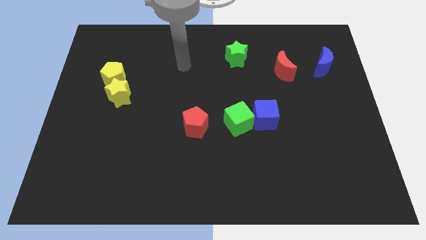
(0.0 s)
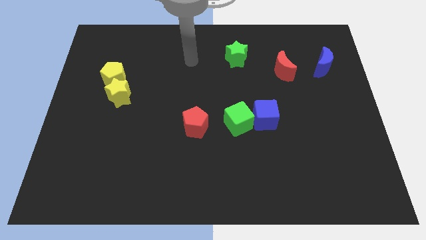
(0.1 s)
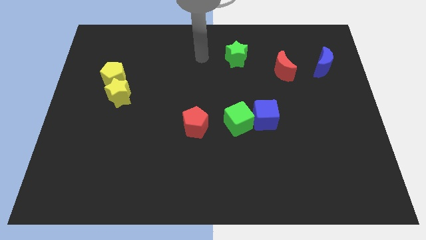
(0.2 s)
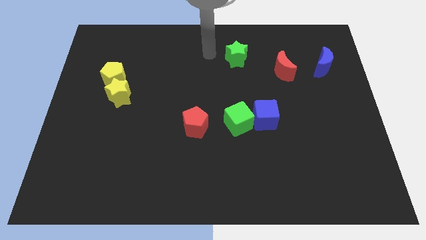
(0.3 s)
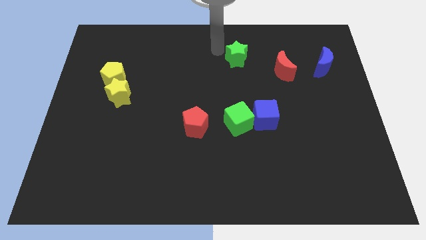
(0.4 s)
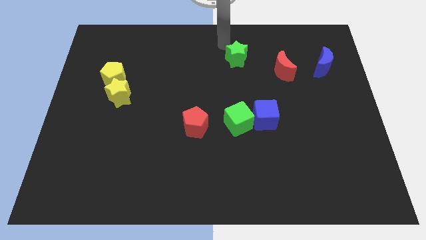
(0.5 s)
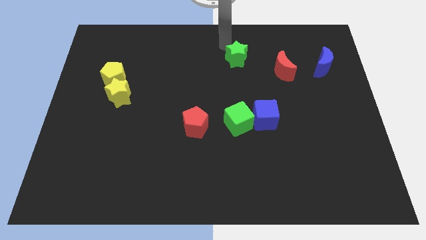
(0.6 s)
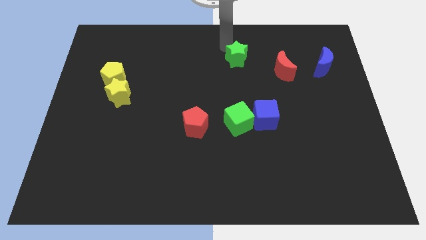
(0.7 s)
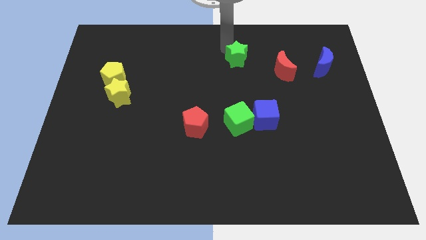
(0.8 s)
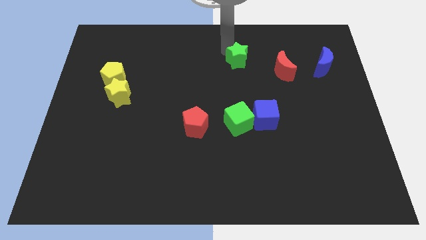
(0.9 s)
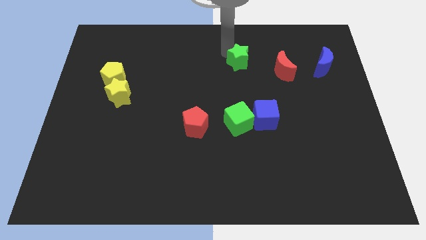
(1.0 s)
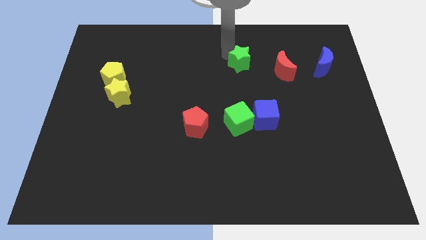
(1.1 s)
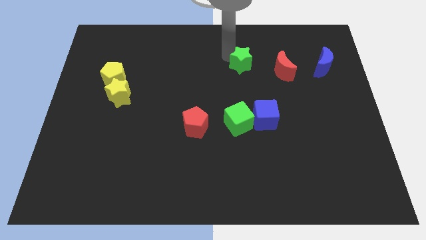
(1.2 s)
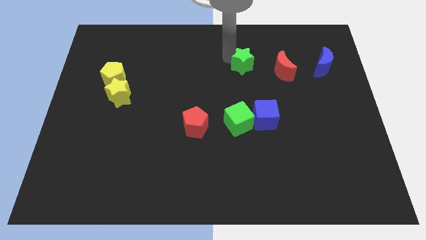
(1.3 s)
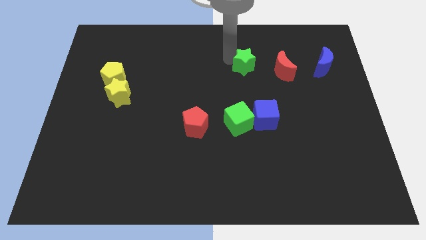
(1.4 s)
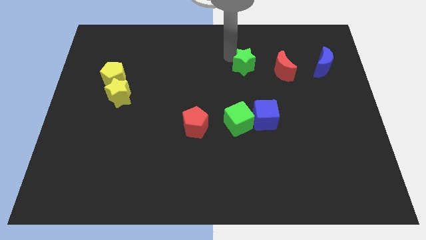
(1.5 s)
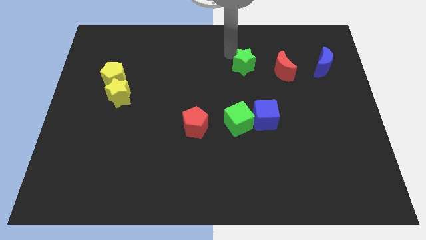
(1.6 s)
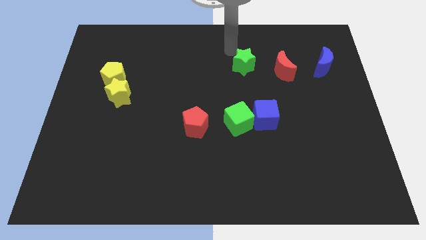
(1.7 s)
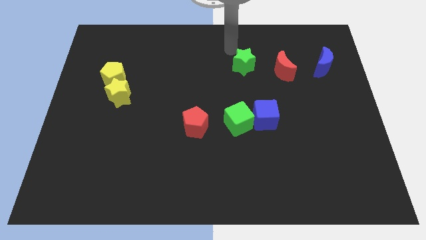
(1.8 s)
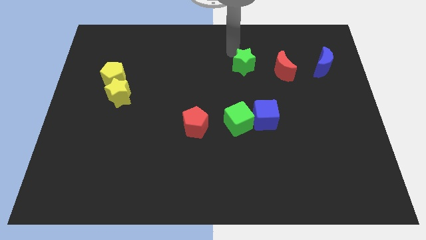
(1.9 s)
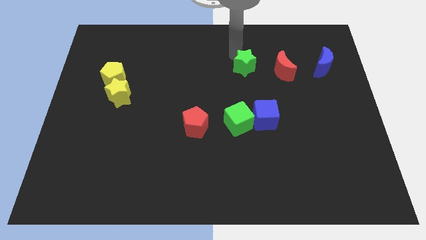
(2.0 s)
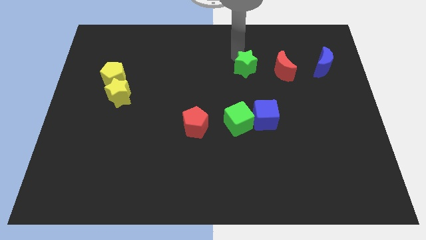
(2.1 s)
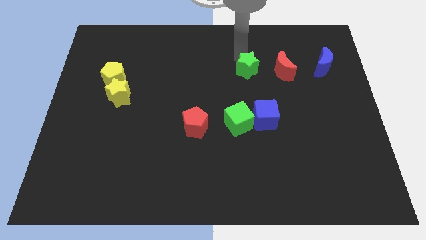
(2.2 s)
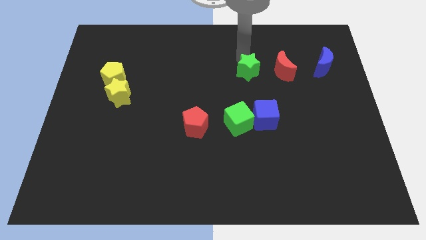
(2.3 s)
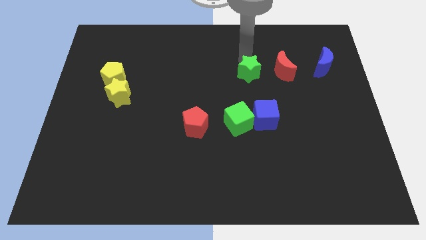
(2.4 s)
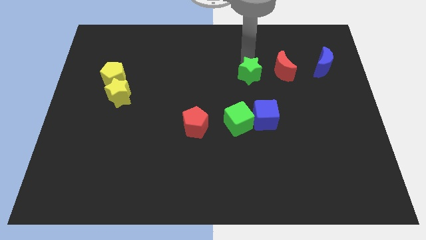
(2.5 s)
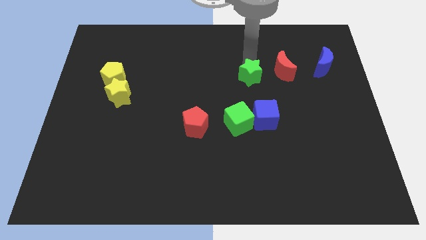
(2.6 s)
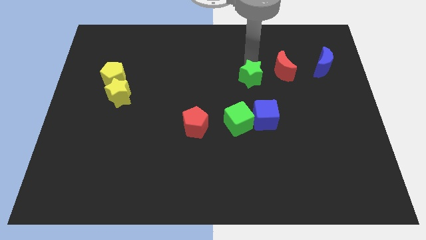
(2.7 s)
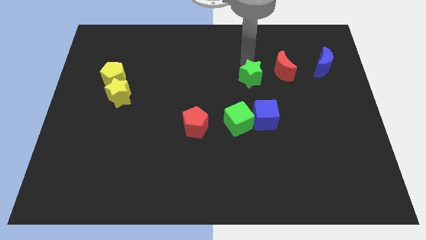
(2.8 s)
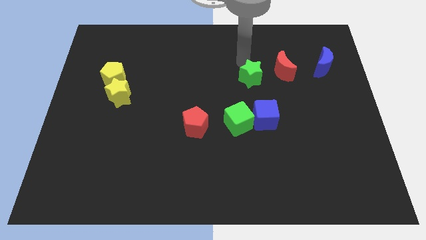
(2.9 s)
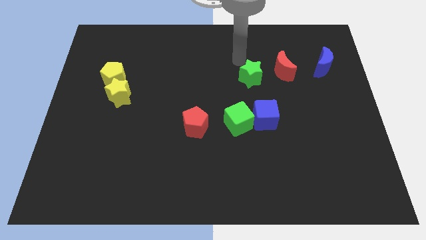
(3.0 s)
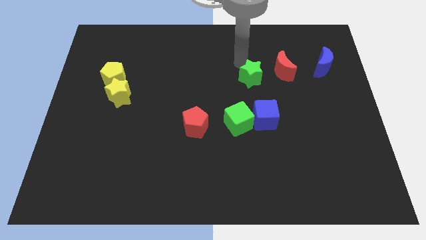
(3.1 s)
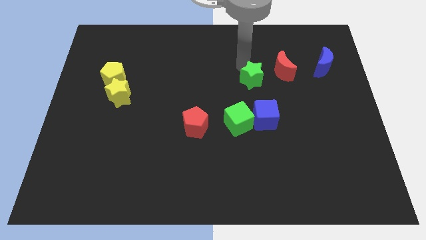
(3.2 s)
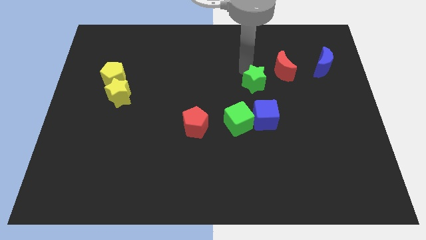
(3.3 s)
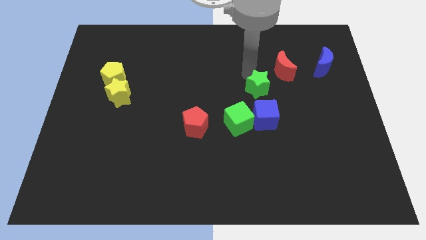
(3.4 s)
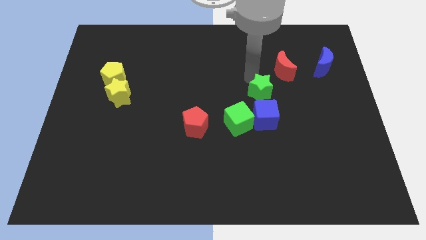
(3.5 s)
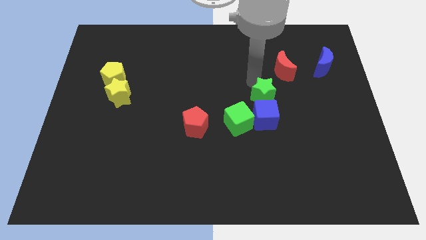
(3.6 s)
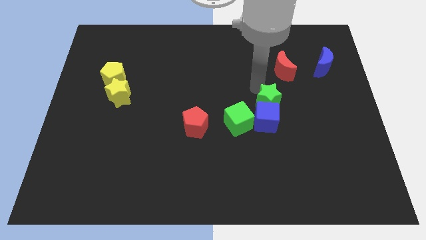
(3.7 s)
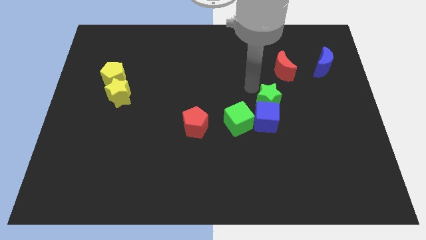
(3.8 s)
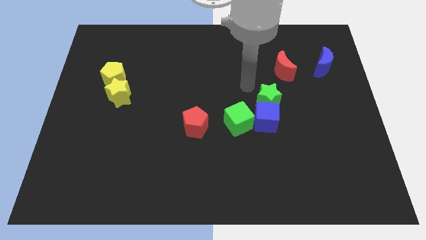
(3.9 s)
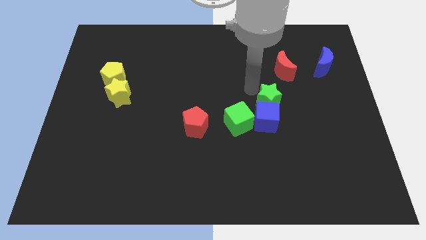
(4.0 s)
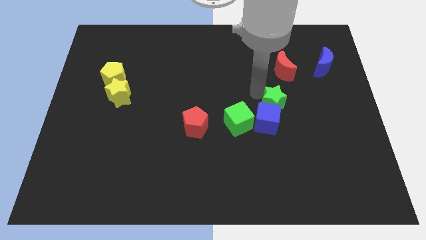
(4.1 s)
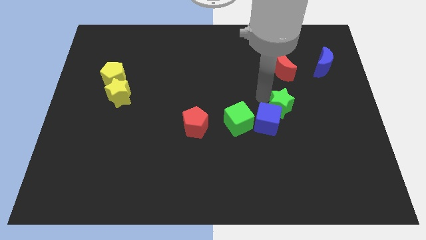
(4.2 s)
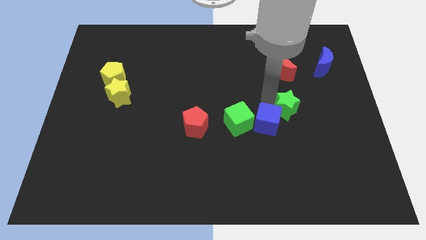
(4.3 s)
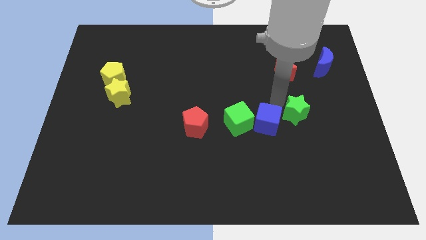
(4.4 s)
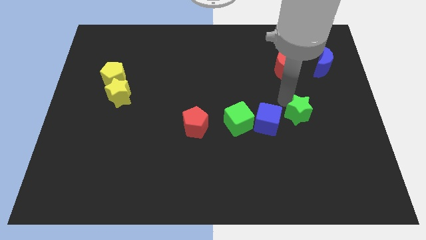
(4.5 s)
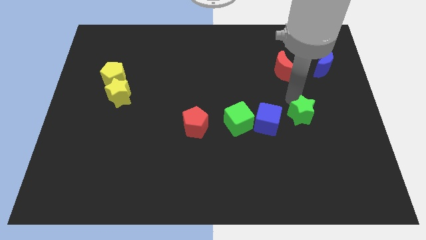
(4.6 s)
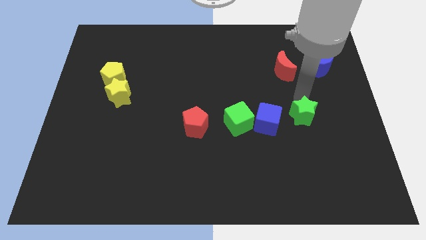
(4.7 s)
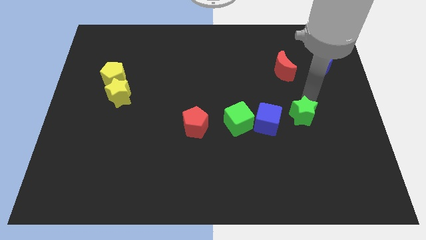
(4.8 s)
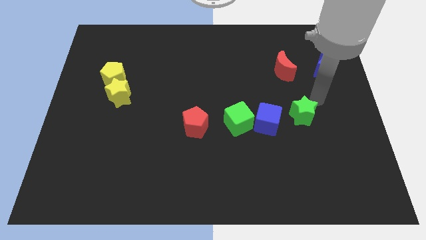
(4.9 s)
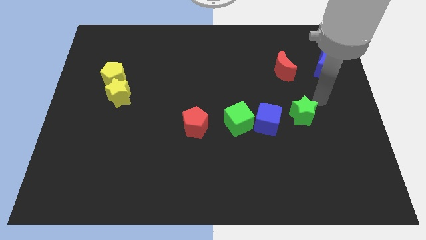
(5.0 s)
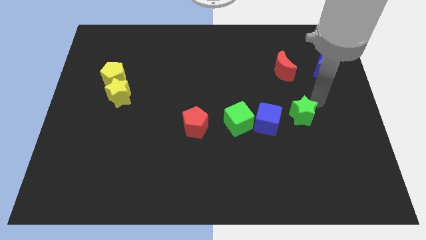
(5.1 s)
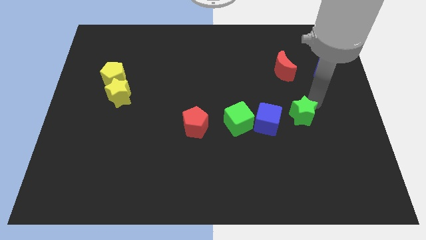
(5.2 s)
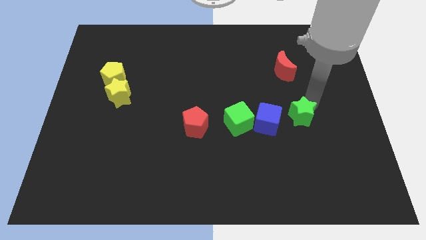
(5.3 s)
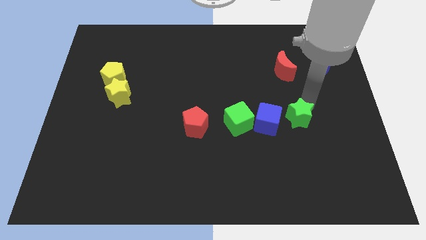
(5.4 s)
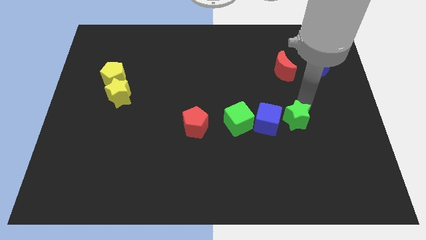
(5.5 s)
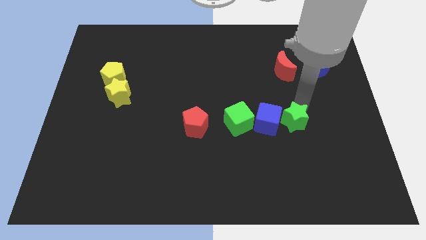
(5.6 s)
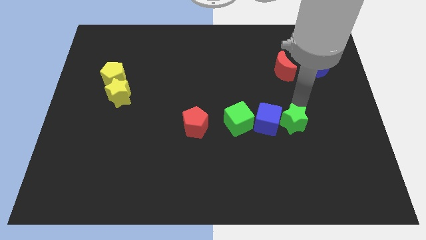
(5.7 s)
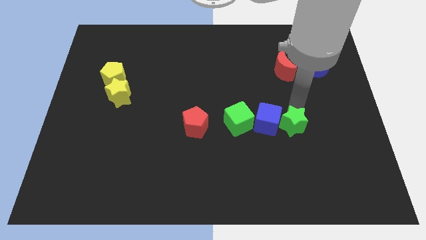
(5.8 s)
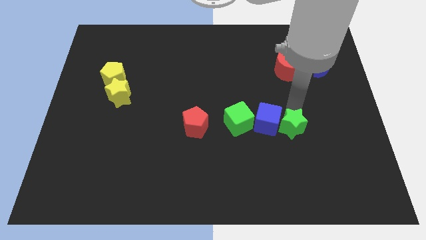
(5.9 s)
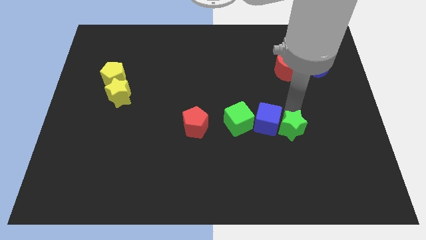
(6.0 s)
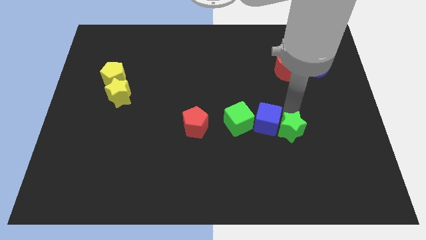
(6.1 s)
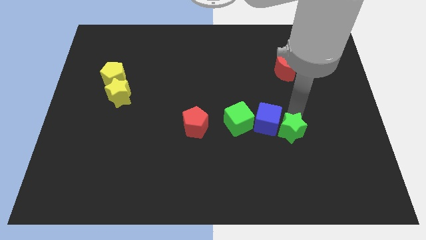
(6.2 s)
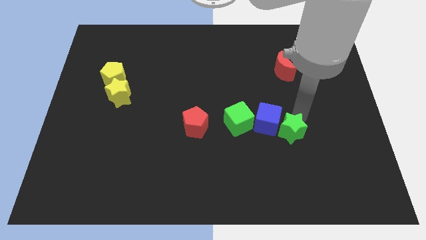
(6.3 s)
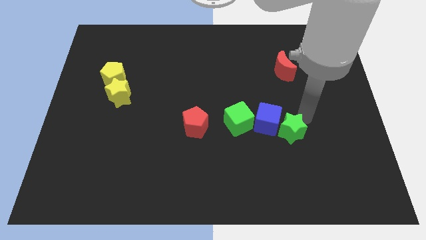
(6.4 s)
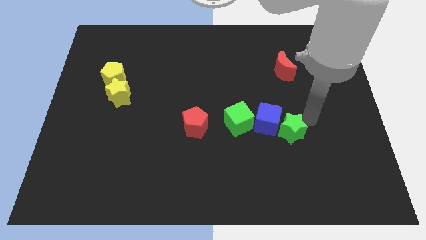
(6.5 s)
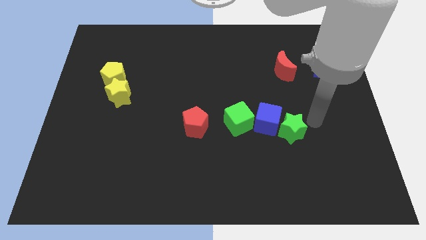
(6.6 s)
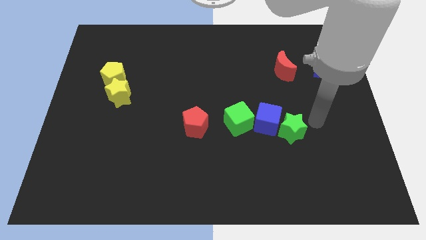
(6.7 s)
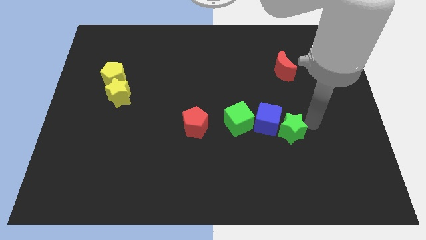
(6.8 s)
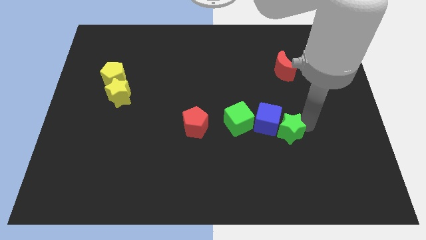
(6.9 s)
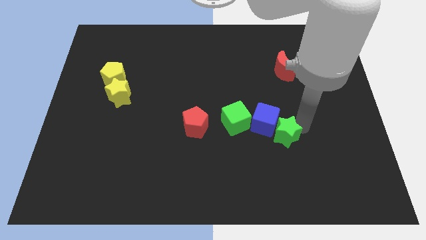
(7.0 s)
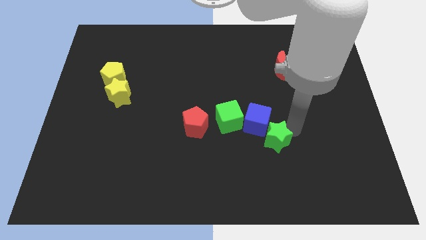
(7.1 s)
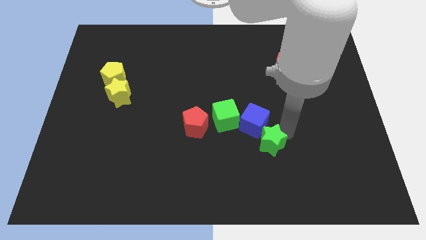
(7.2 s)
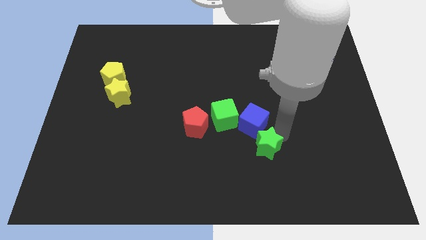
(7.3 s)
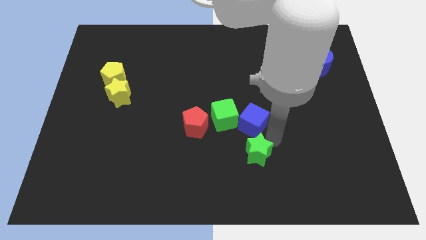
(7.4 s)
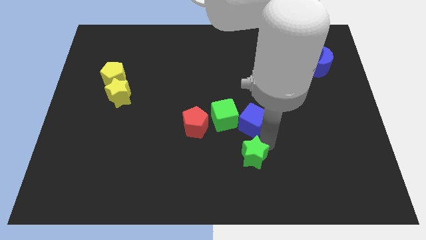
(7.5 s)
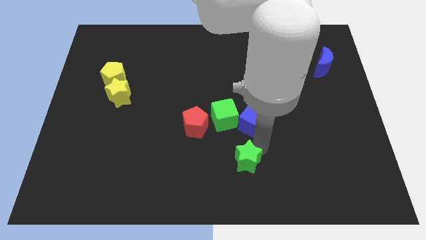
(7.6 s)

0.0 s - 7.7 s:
move the green star to the bottom
